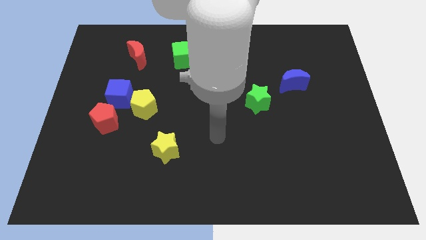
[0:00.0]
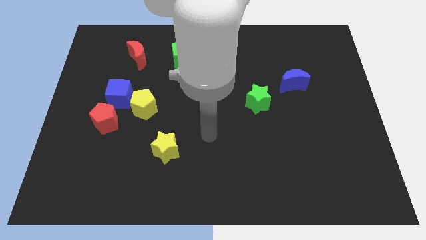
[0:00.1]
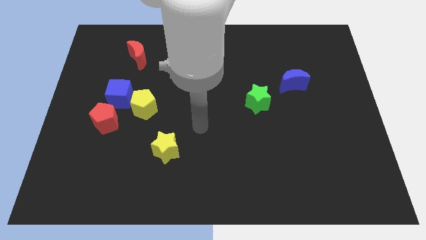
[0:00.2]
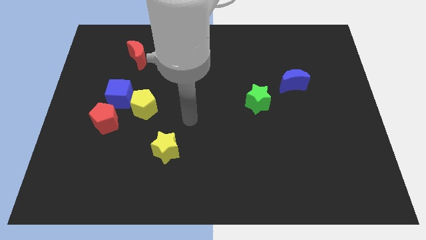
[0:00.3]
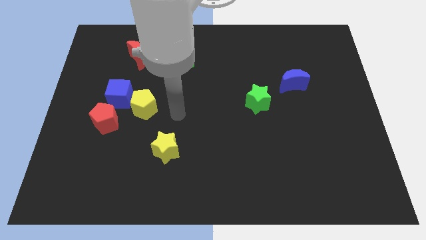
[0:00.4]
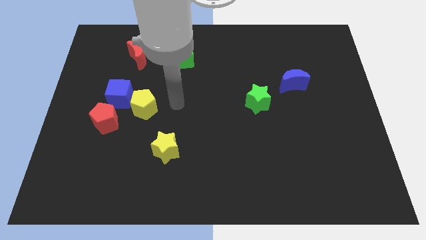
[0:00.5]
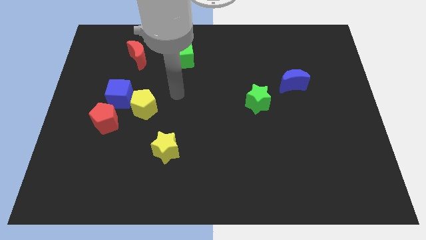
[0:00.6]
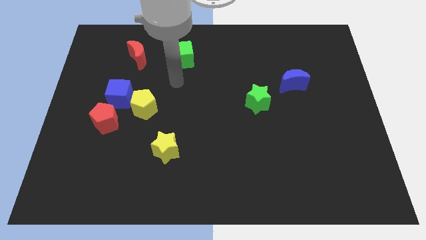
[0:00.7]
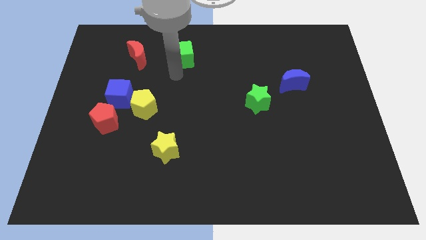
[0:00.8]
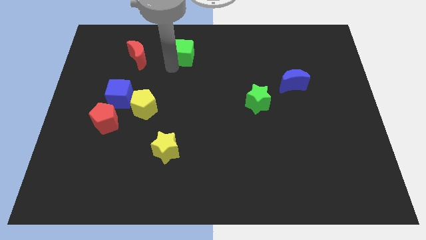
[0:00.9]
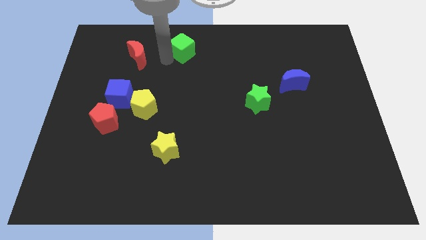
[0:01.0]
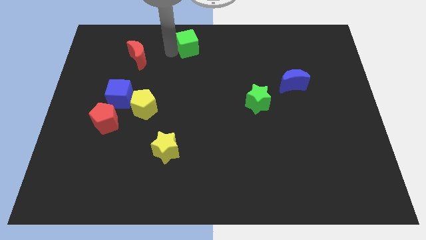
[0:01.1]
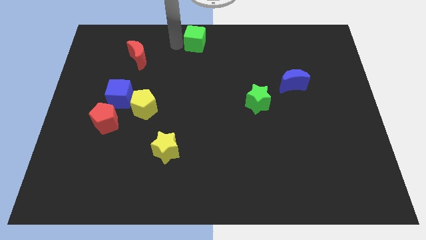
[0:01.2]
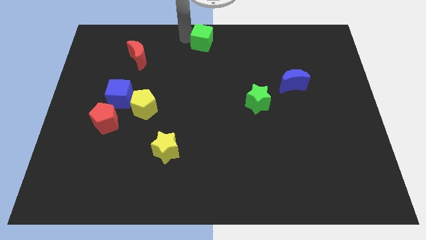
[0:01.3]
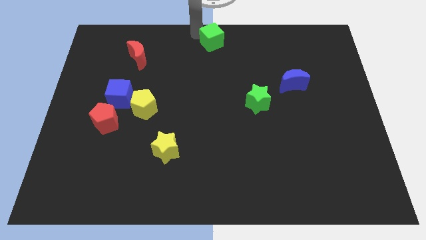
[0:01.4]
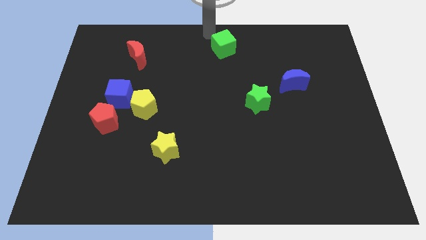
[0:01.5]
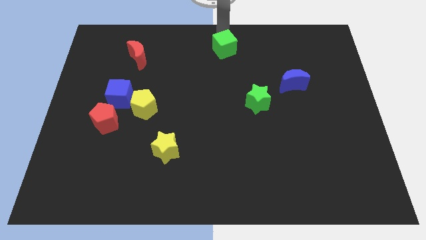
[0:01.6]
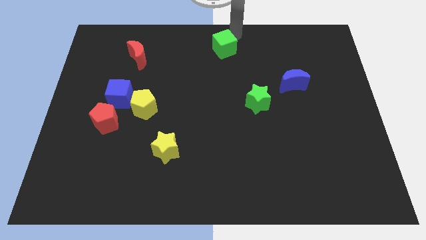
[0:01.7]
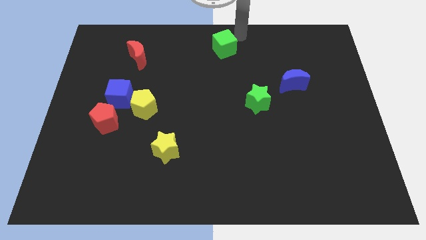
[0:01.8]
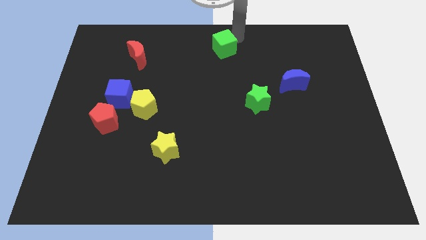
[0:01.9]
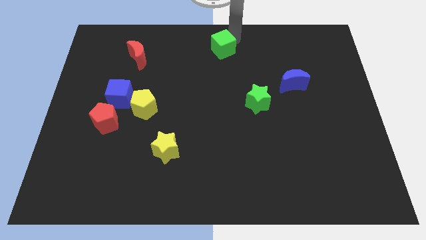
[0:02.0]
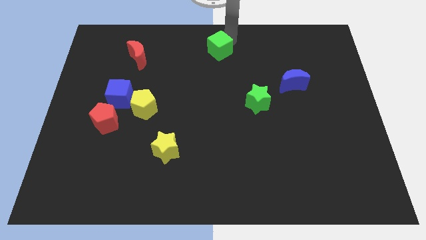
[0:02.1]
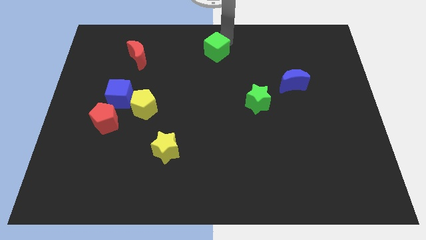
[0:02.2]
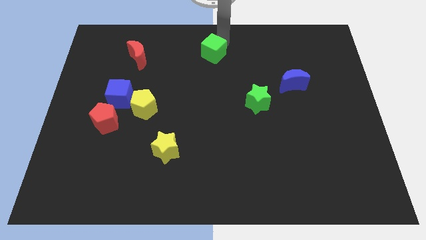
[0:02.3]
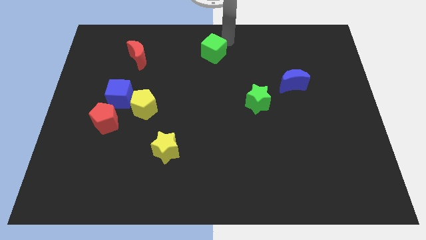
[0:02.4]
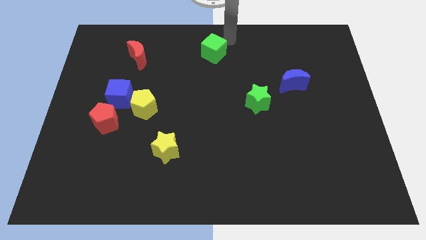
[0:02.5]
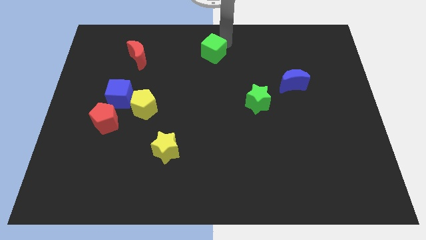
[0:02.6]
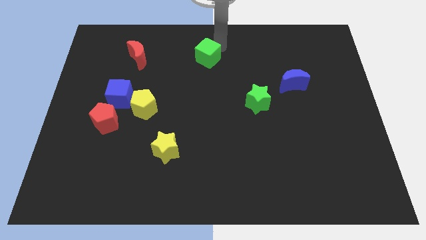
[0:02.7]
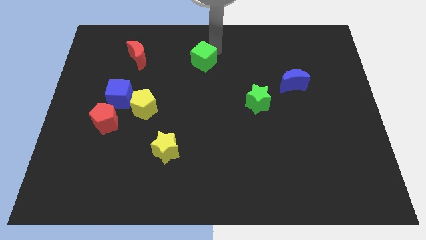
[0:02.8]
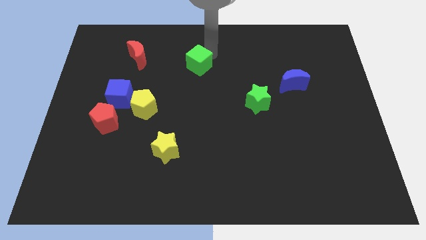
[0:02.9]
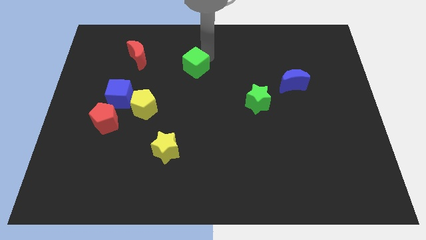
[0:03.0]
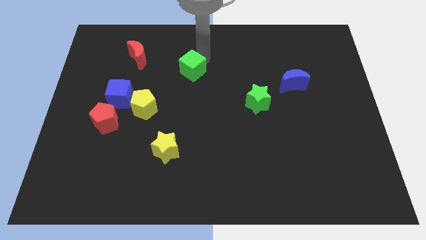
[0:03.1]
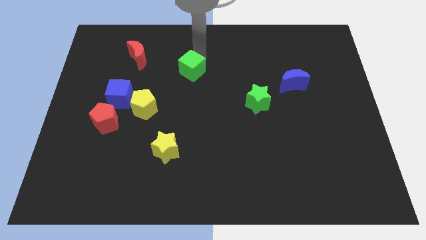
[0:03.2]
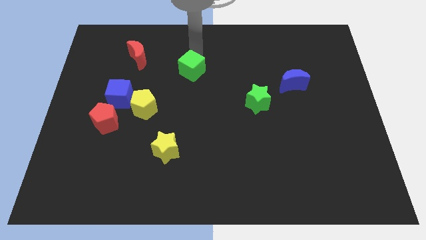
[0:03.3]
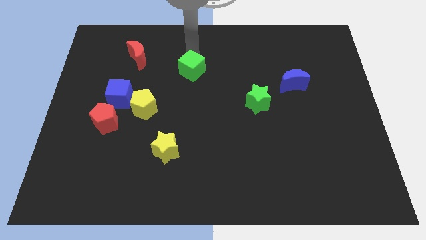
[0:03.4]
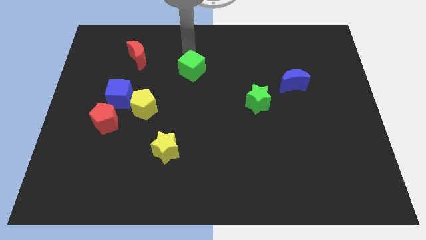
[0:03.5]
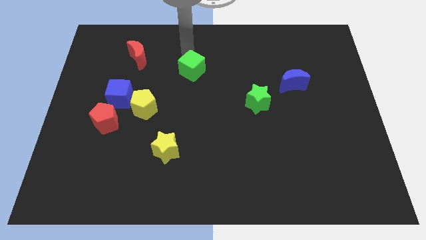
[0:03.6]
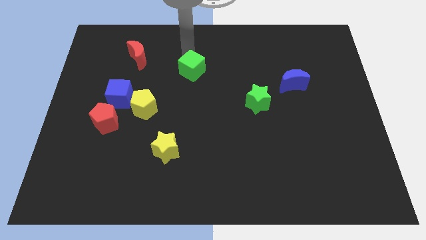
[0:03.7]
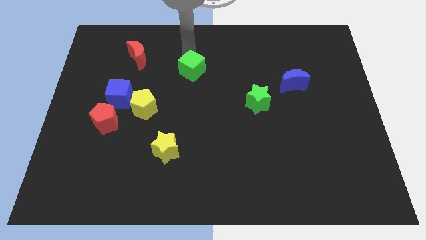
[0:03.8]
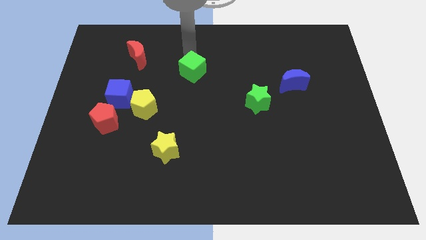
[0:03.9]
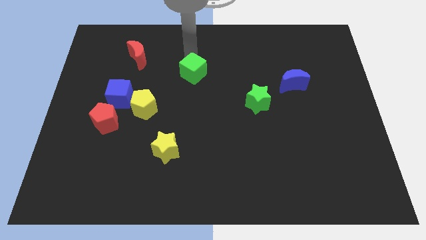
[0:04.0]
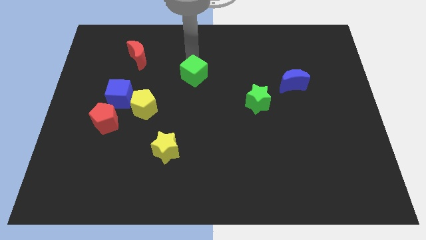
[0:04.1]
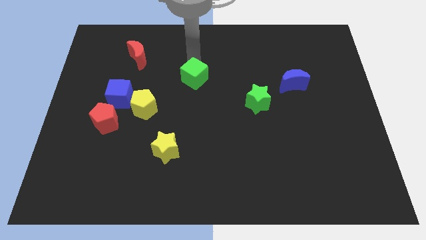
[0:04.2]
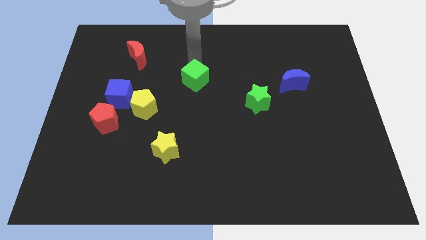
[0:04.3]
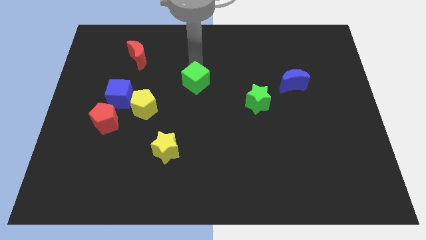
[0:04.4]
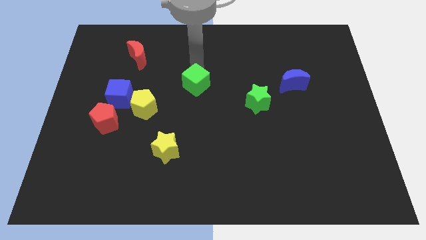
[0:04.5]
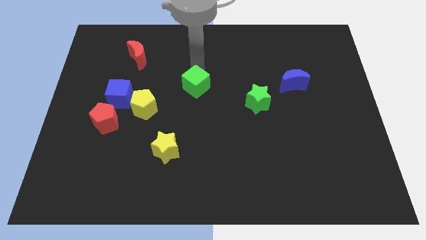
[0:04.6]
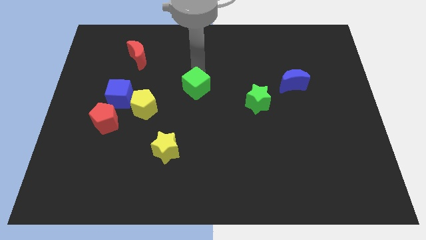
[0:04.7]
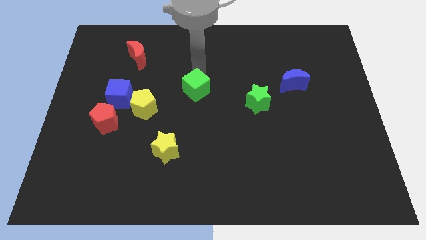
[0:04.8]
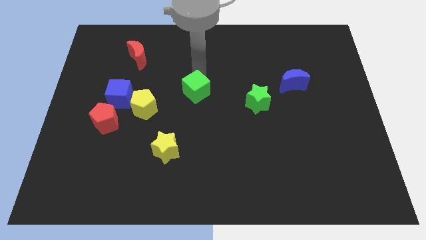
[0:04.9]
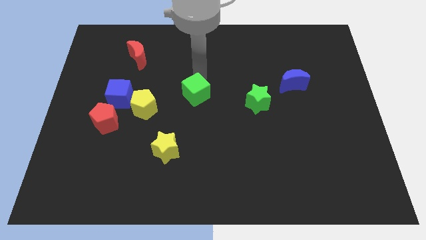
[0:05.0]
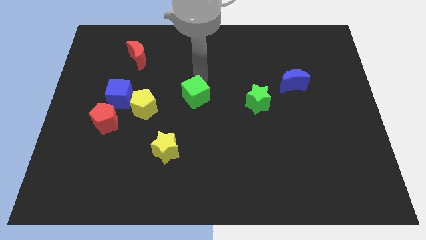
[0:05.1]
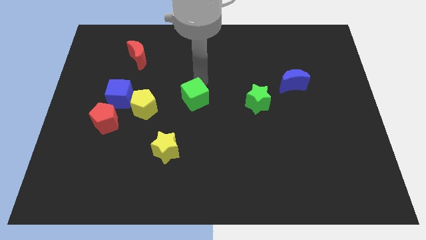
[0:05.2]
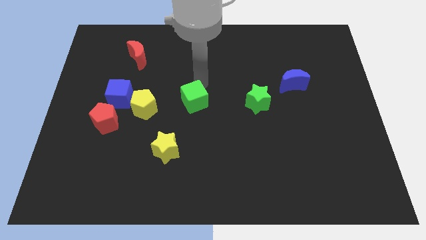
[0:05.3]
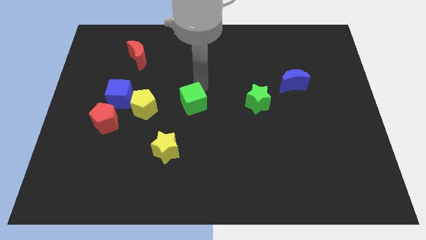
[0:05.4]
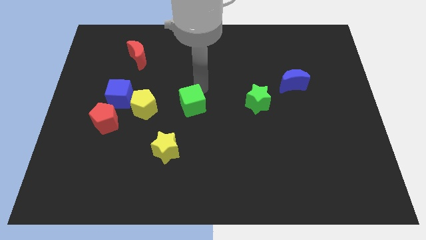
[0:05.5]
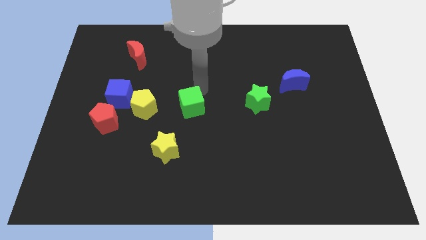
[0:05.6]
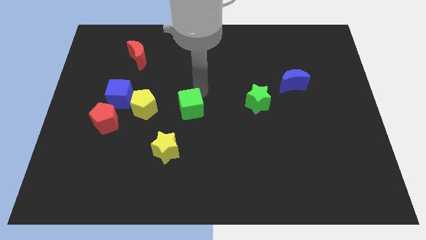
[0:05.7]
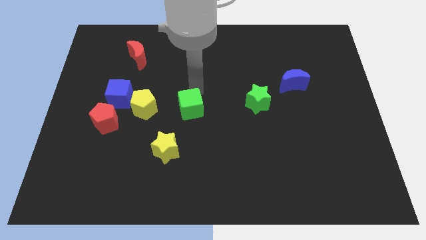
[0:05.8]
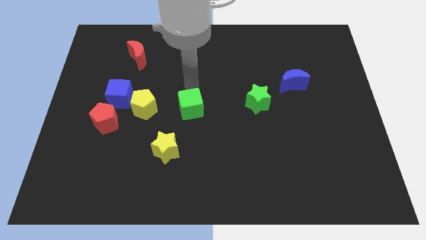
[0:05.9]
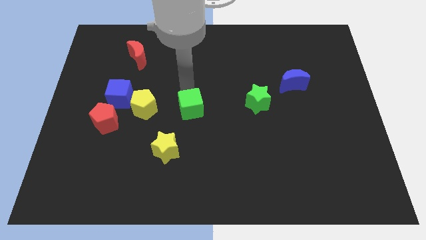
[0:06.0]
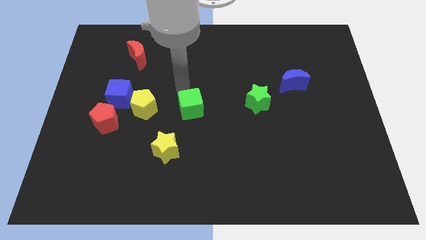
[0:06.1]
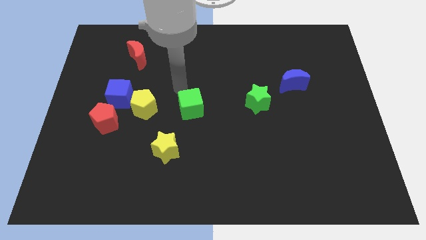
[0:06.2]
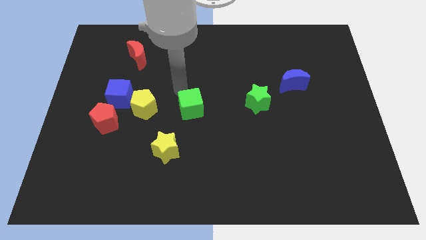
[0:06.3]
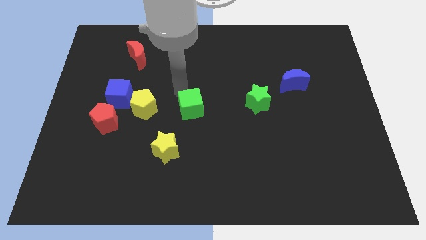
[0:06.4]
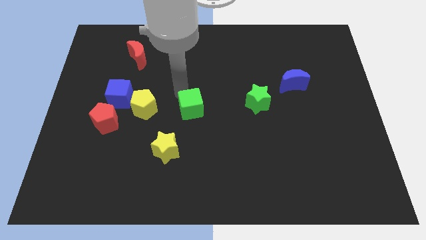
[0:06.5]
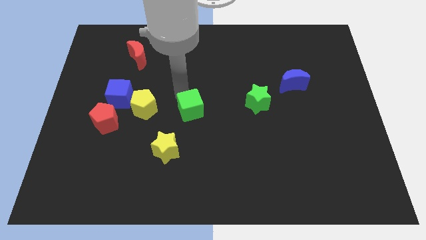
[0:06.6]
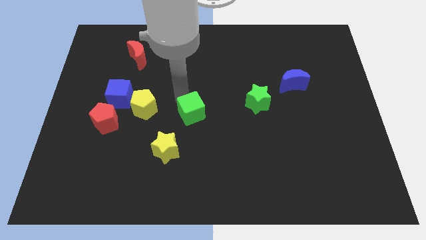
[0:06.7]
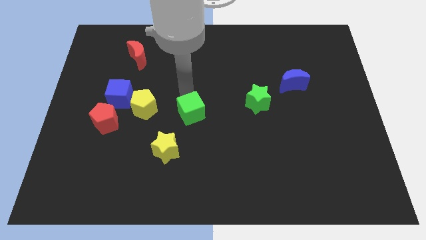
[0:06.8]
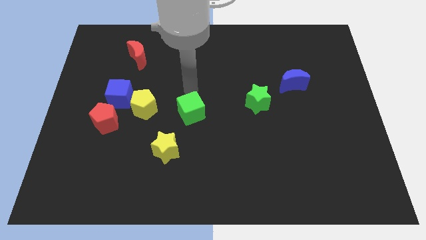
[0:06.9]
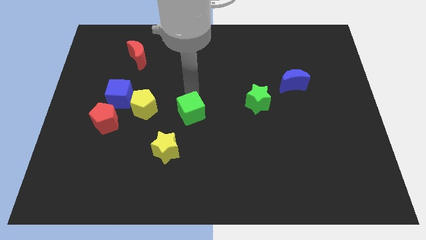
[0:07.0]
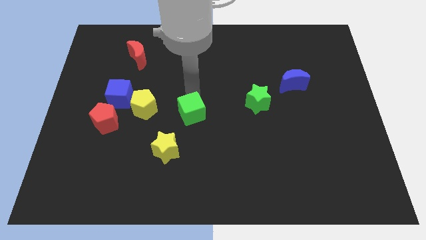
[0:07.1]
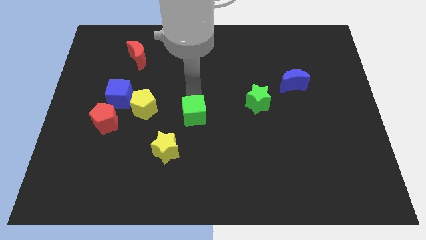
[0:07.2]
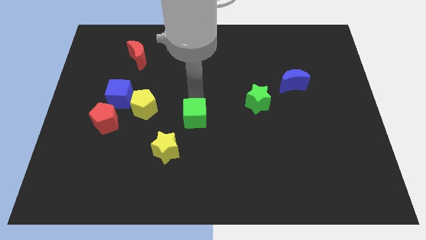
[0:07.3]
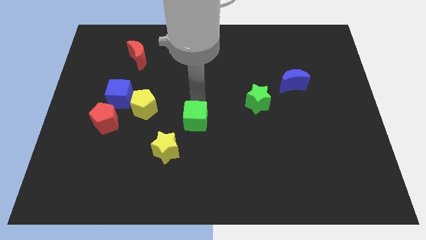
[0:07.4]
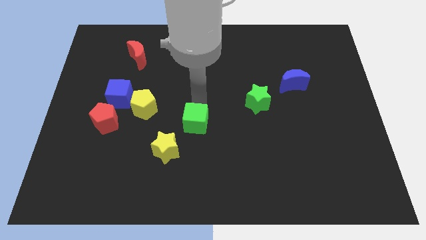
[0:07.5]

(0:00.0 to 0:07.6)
push the green cube downwards
